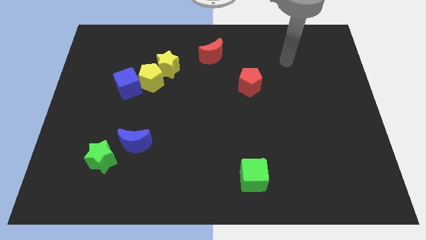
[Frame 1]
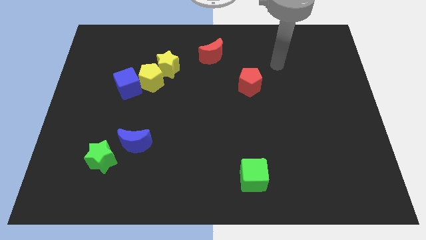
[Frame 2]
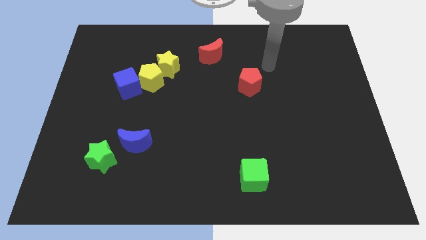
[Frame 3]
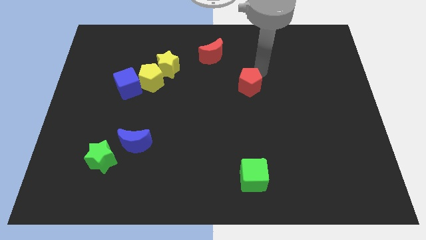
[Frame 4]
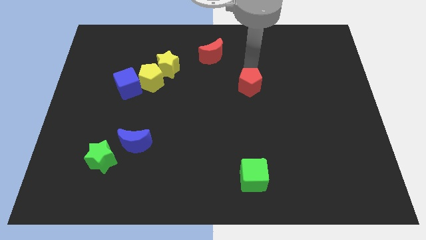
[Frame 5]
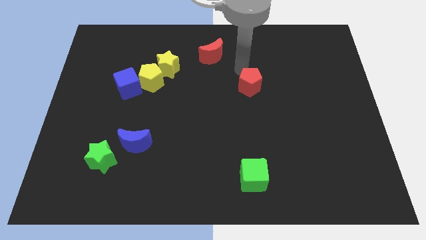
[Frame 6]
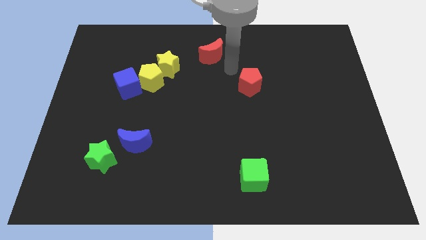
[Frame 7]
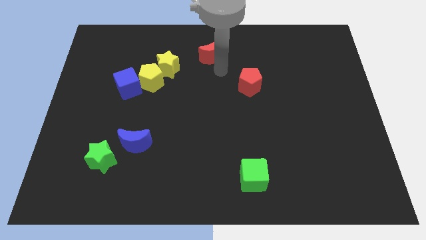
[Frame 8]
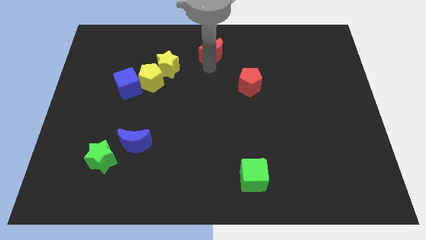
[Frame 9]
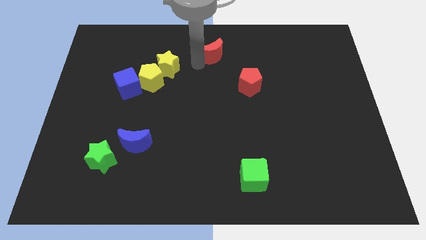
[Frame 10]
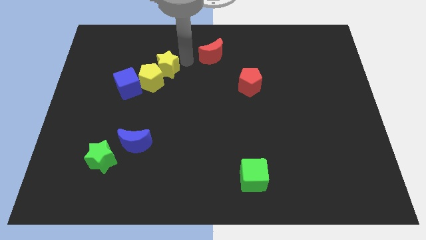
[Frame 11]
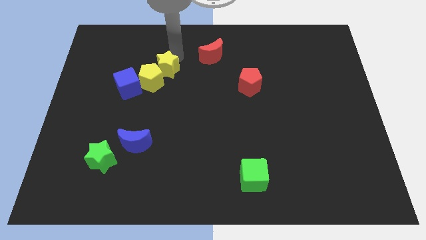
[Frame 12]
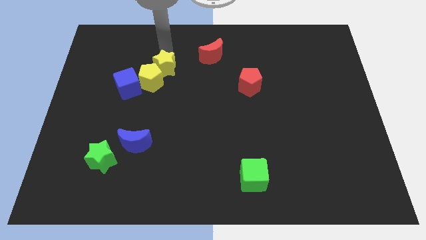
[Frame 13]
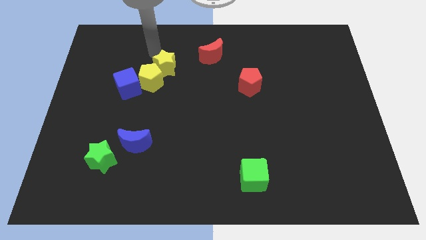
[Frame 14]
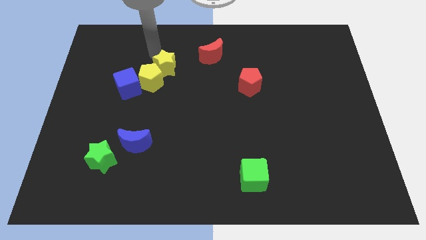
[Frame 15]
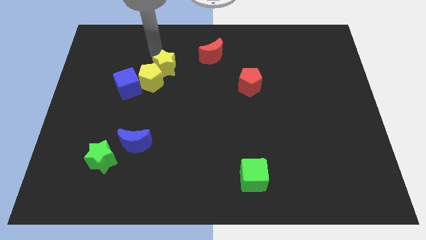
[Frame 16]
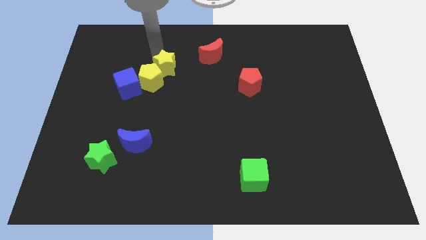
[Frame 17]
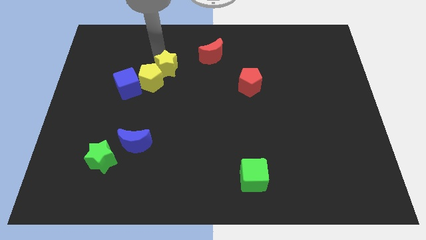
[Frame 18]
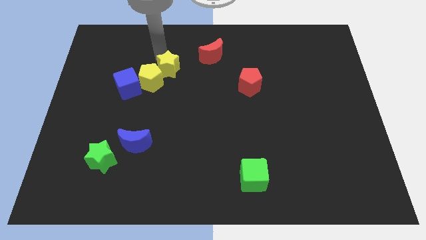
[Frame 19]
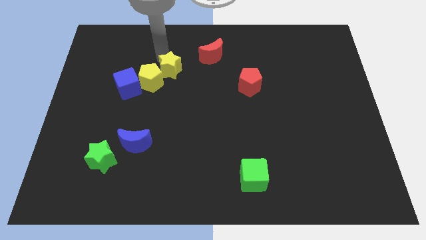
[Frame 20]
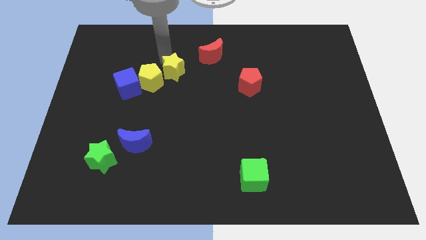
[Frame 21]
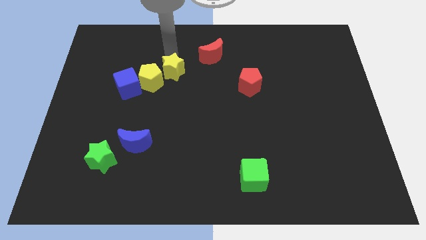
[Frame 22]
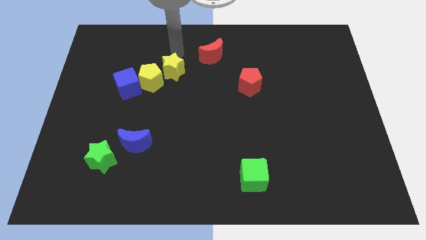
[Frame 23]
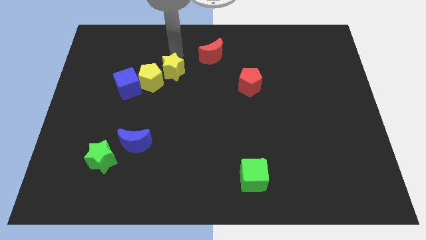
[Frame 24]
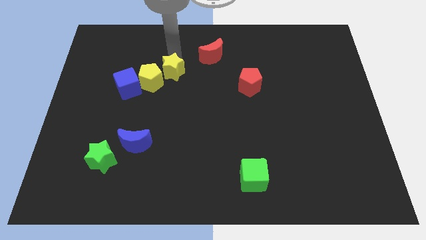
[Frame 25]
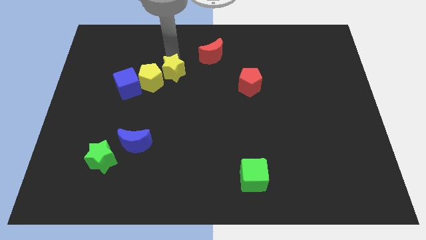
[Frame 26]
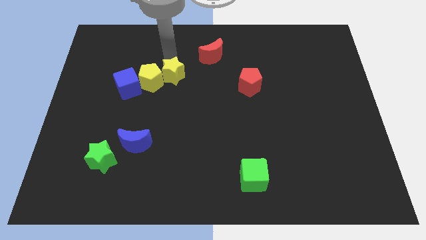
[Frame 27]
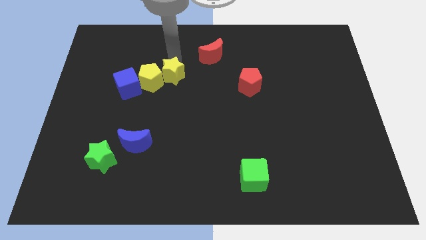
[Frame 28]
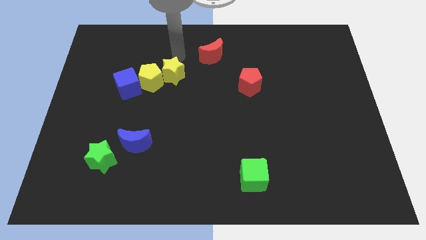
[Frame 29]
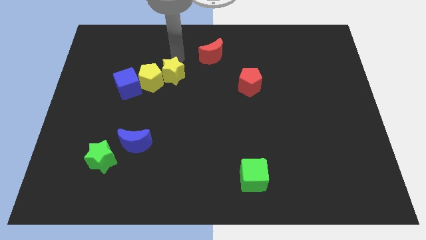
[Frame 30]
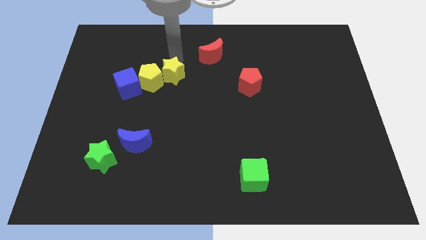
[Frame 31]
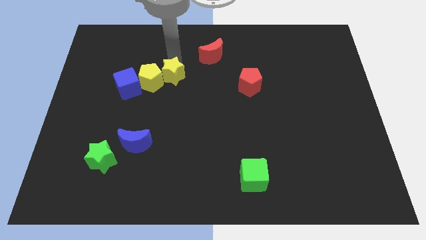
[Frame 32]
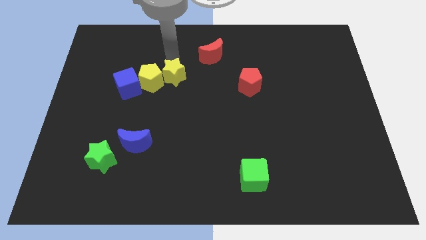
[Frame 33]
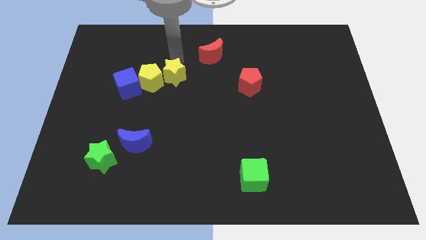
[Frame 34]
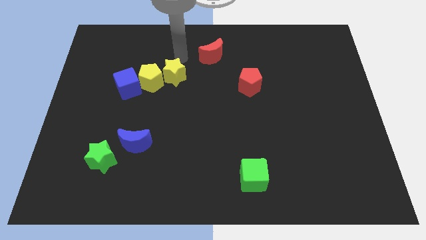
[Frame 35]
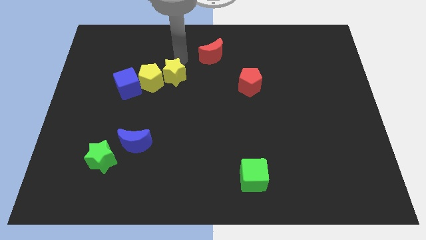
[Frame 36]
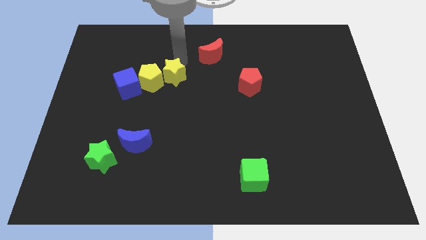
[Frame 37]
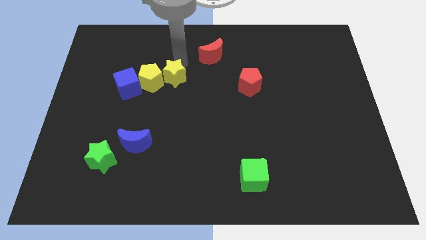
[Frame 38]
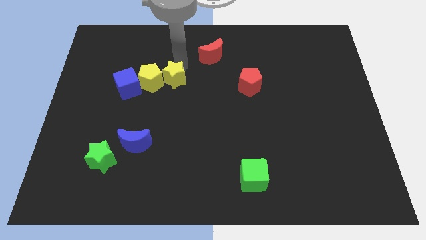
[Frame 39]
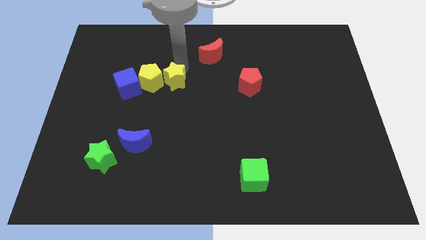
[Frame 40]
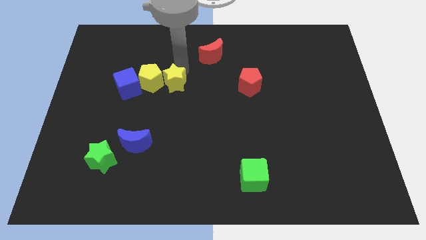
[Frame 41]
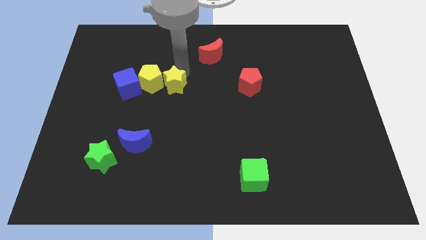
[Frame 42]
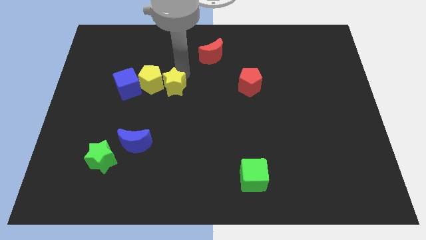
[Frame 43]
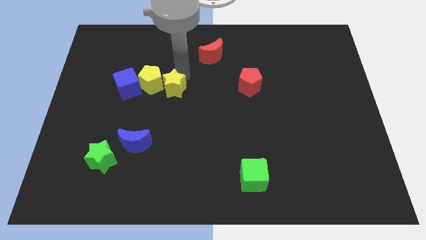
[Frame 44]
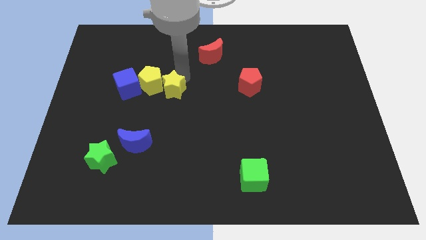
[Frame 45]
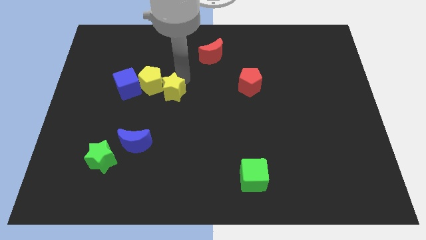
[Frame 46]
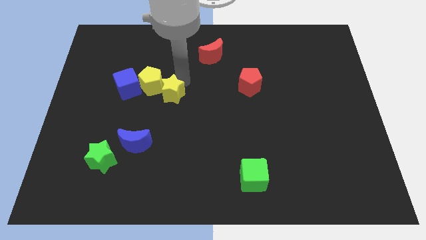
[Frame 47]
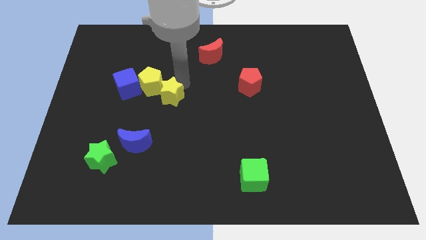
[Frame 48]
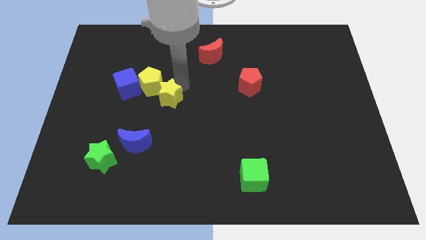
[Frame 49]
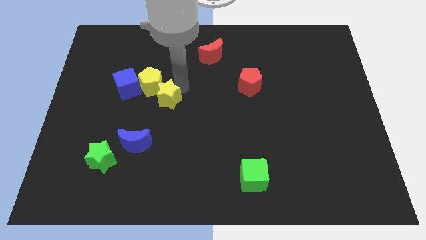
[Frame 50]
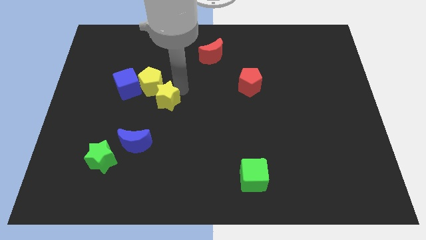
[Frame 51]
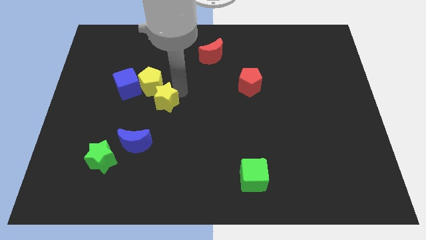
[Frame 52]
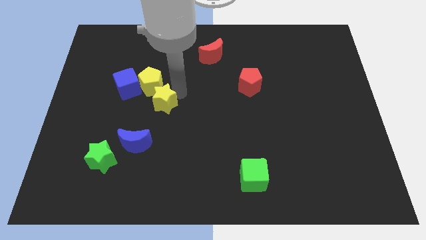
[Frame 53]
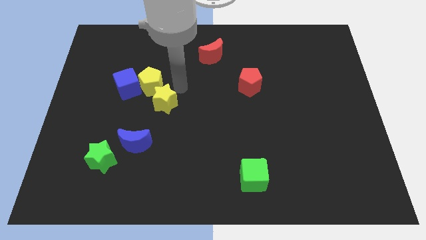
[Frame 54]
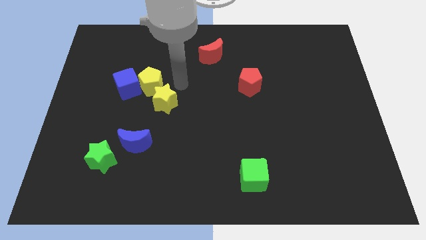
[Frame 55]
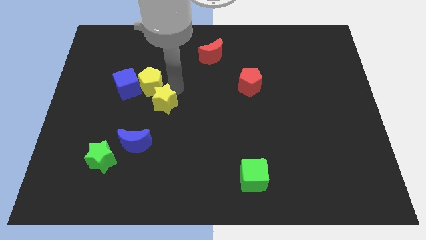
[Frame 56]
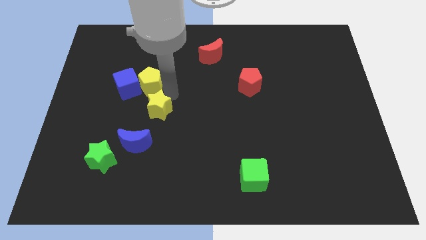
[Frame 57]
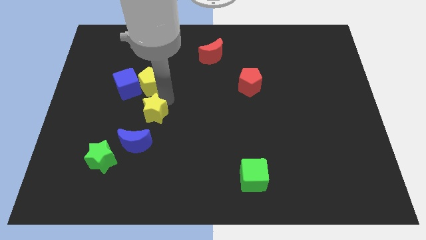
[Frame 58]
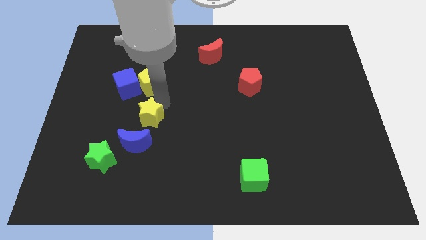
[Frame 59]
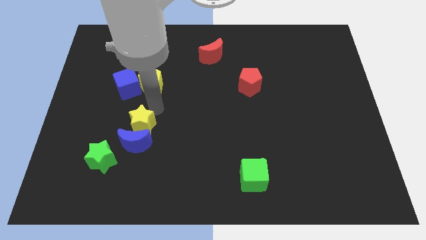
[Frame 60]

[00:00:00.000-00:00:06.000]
slide the yellow star to the blue moon

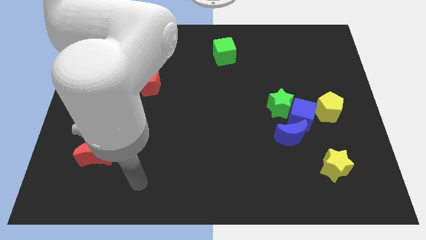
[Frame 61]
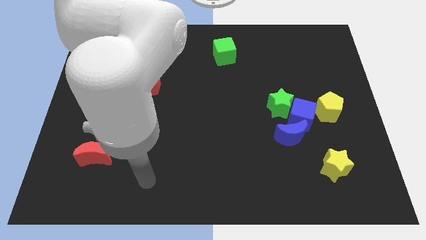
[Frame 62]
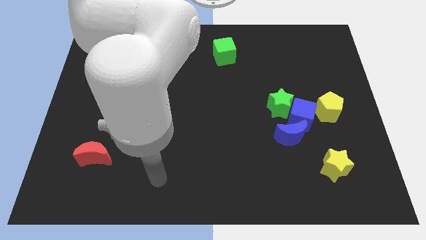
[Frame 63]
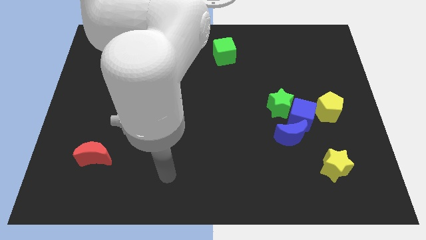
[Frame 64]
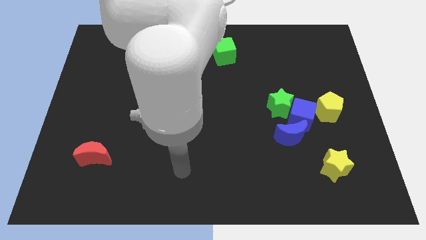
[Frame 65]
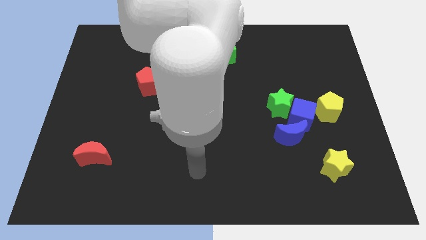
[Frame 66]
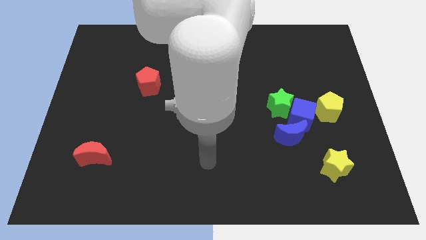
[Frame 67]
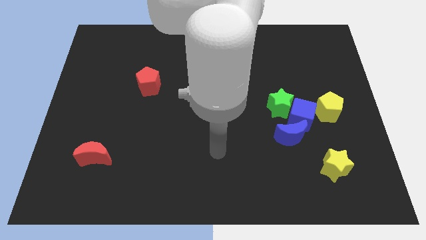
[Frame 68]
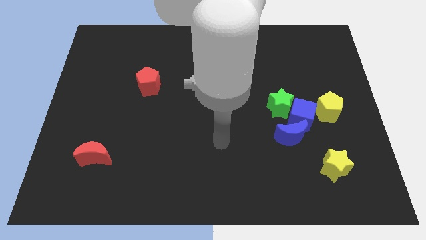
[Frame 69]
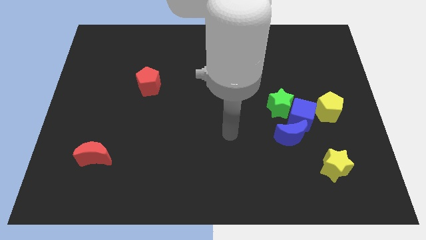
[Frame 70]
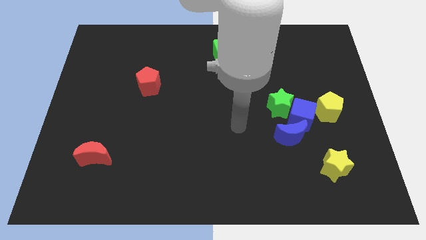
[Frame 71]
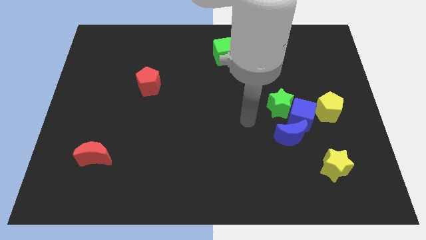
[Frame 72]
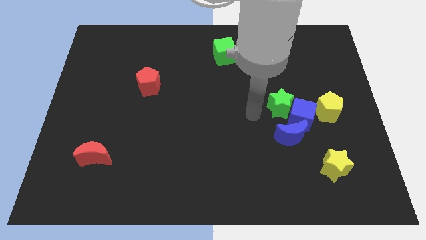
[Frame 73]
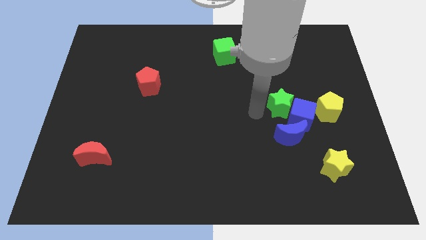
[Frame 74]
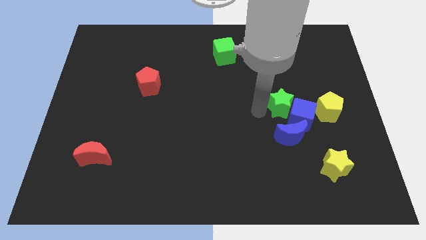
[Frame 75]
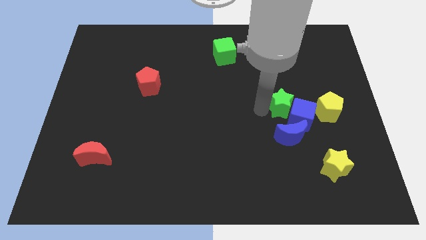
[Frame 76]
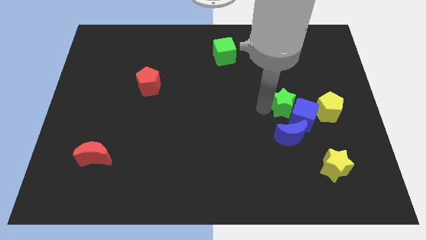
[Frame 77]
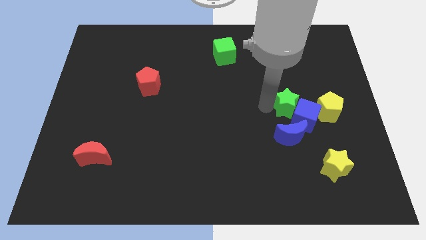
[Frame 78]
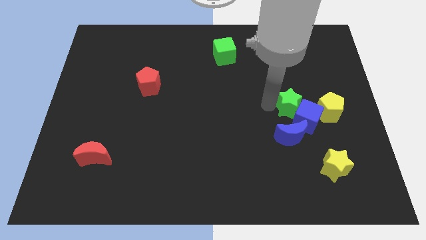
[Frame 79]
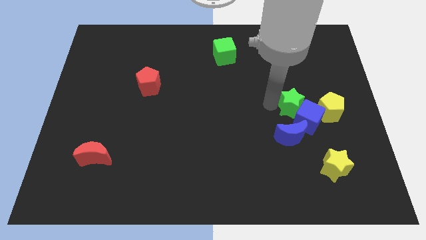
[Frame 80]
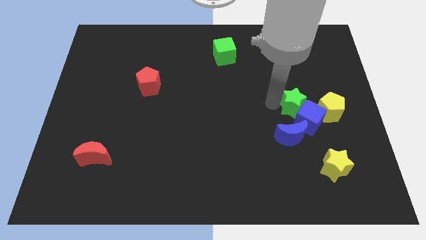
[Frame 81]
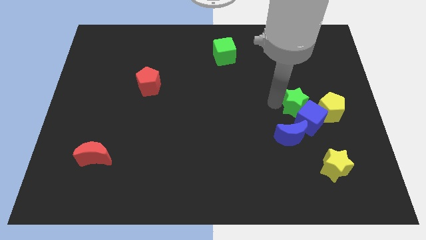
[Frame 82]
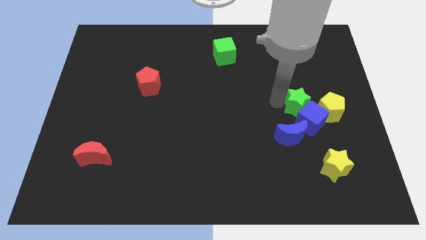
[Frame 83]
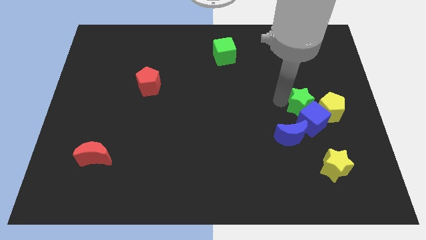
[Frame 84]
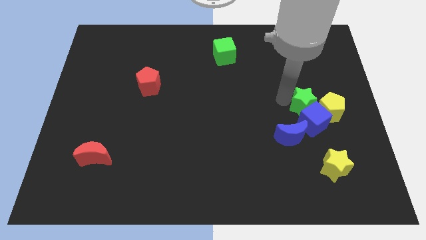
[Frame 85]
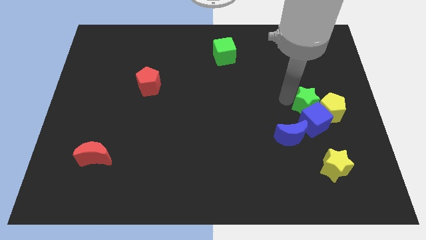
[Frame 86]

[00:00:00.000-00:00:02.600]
put the green star to the yellow pentagon
